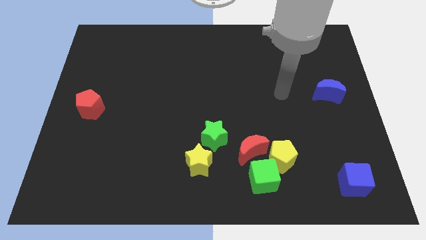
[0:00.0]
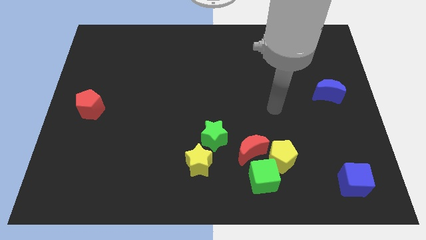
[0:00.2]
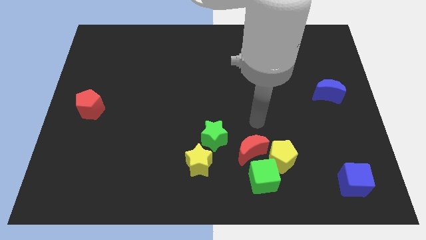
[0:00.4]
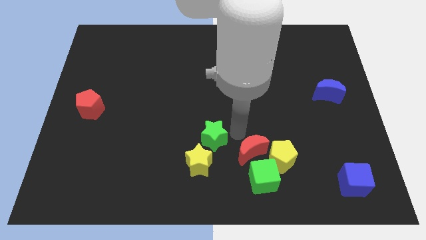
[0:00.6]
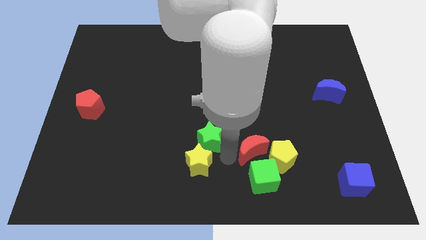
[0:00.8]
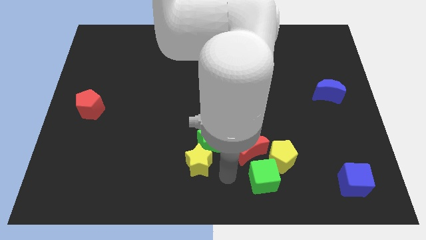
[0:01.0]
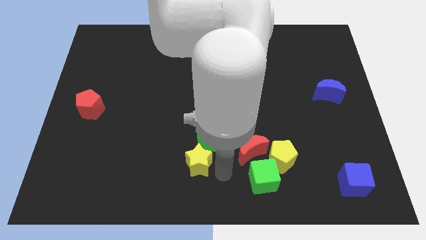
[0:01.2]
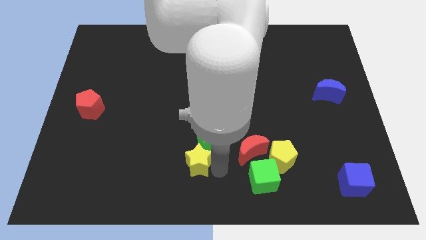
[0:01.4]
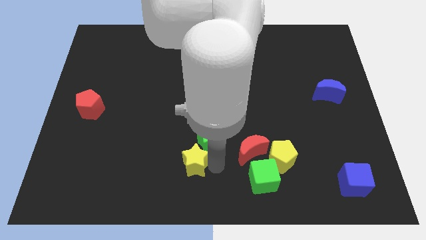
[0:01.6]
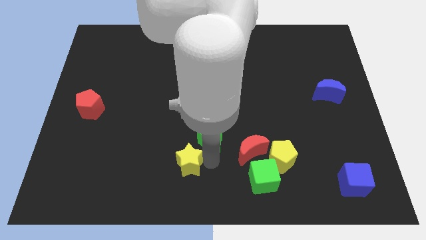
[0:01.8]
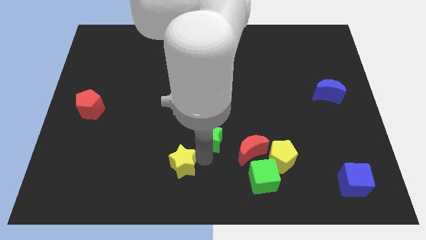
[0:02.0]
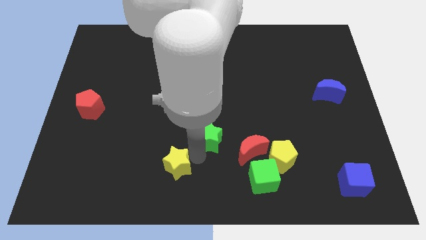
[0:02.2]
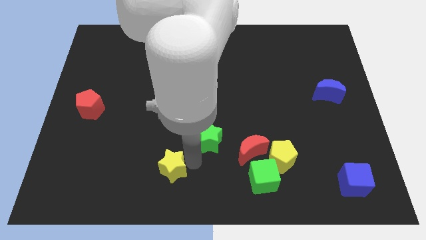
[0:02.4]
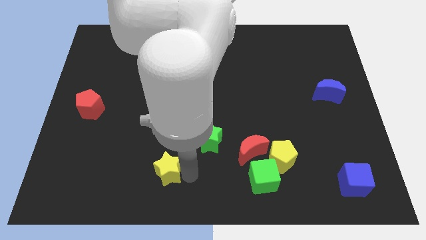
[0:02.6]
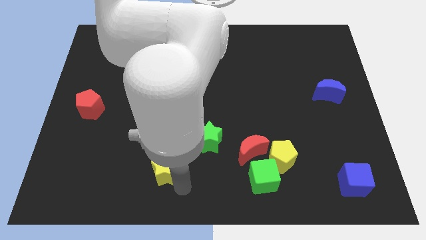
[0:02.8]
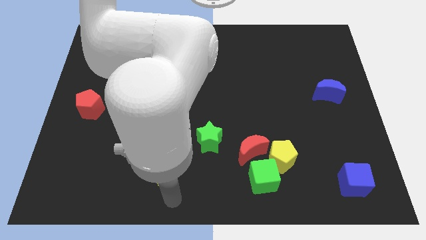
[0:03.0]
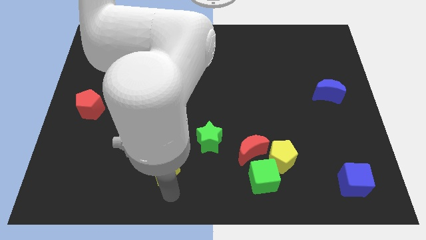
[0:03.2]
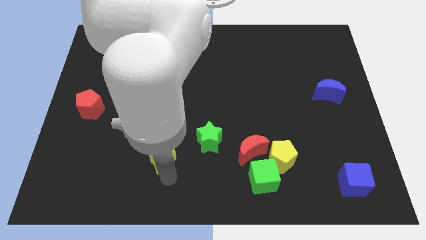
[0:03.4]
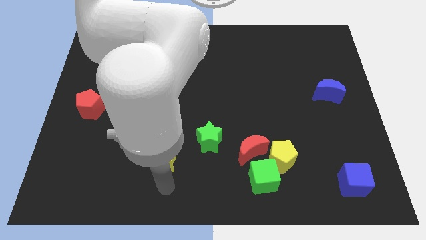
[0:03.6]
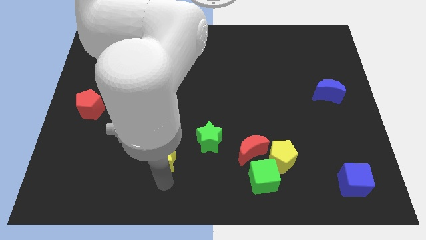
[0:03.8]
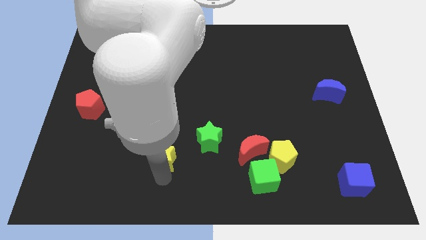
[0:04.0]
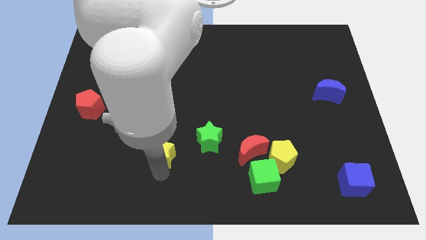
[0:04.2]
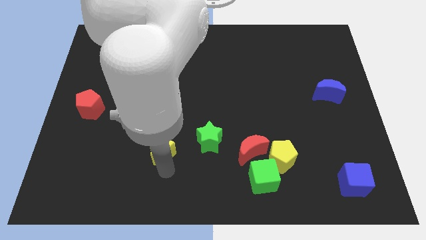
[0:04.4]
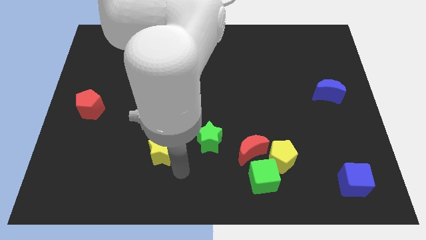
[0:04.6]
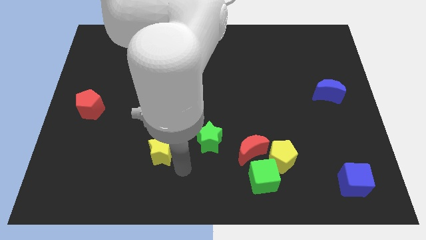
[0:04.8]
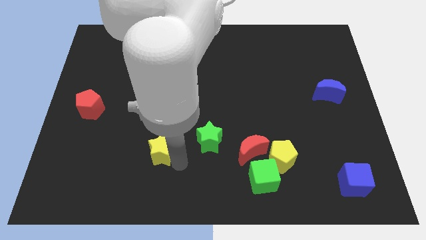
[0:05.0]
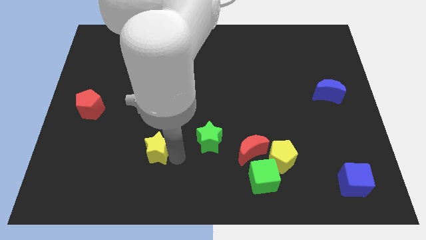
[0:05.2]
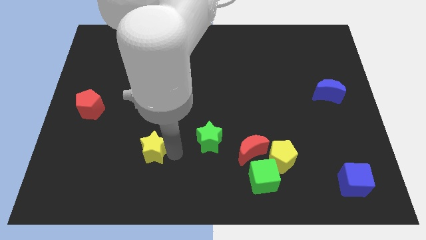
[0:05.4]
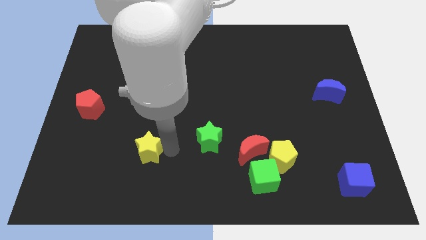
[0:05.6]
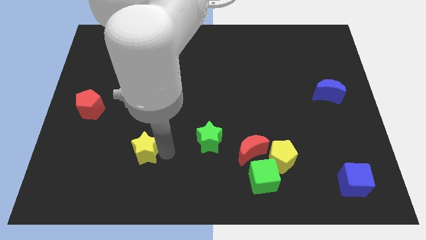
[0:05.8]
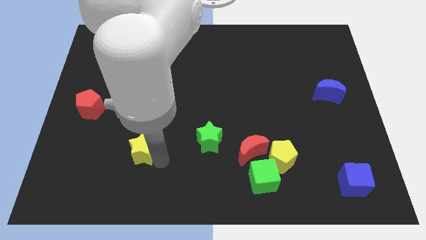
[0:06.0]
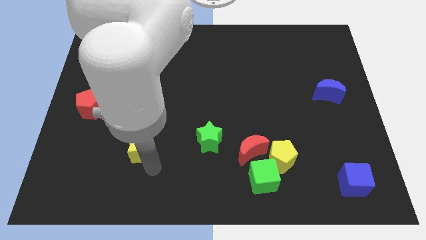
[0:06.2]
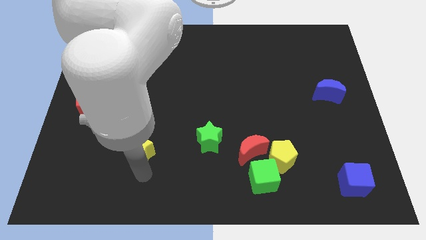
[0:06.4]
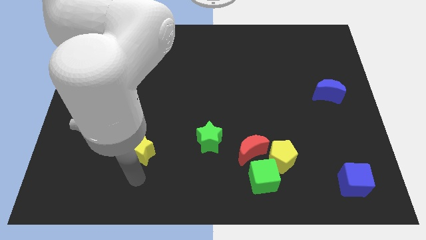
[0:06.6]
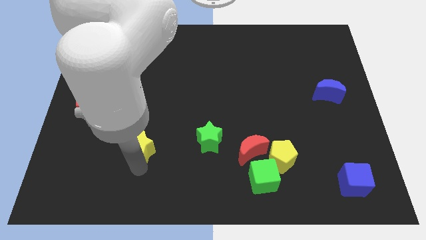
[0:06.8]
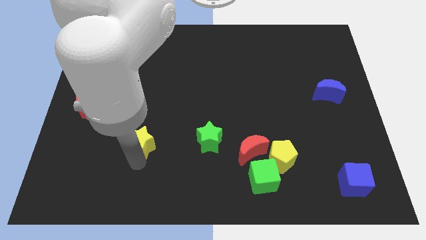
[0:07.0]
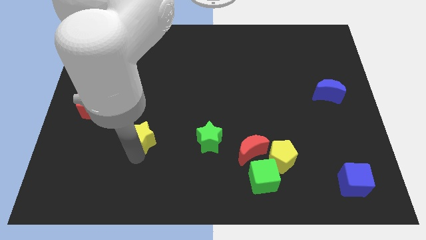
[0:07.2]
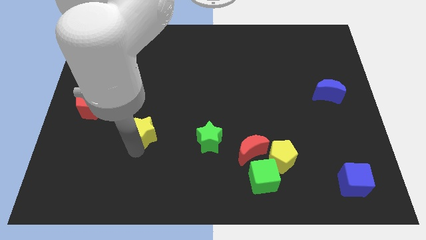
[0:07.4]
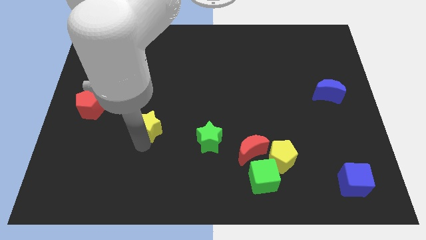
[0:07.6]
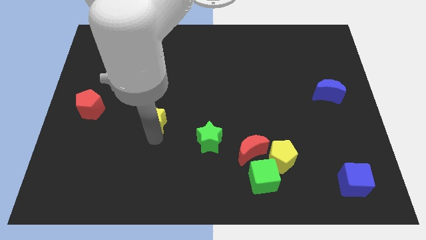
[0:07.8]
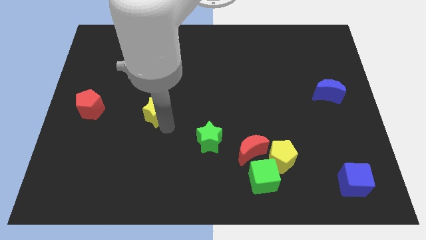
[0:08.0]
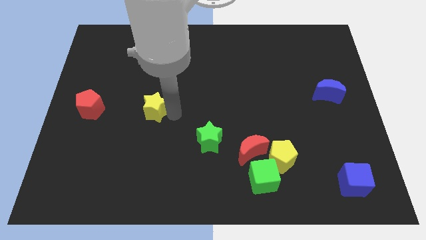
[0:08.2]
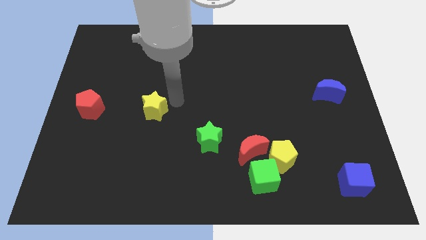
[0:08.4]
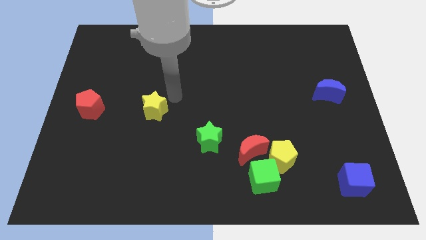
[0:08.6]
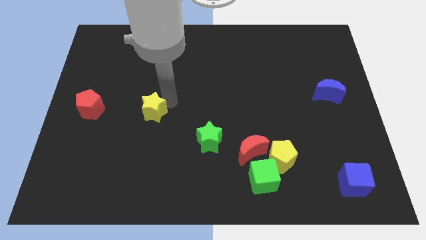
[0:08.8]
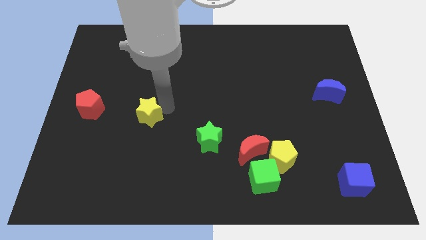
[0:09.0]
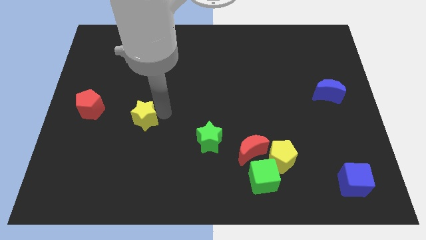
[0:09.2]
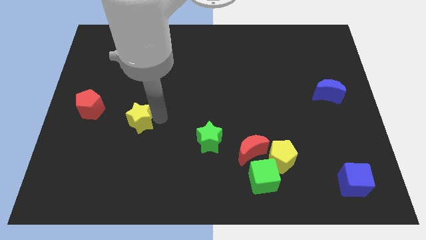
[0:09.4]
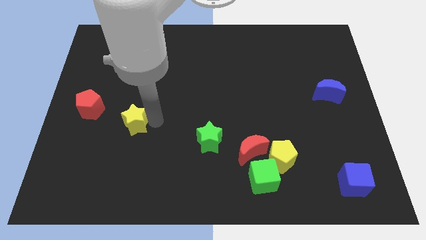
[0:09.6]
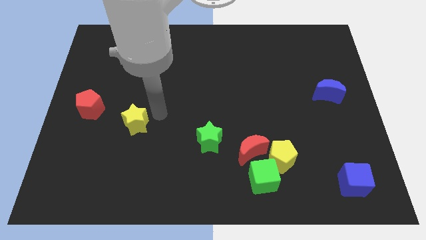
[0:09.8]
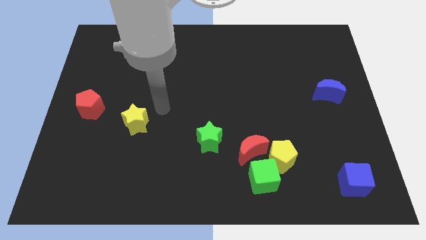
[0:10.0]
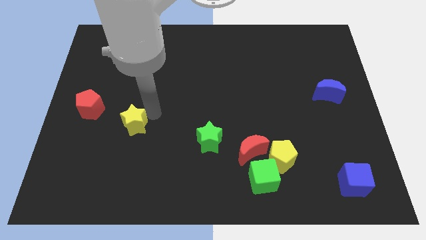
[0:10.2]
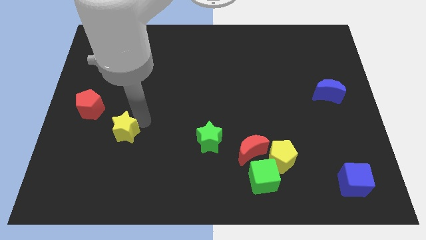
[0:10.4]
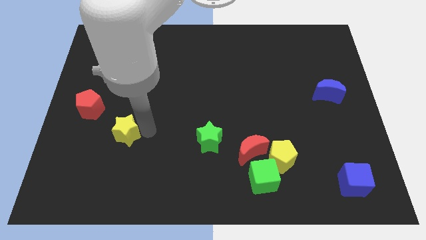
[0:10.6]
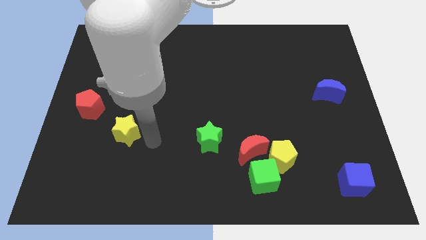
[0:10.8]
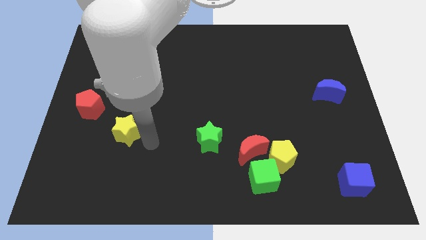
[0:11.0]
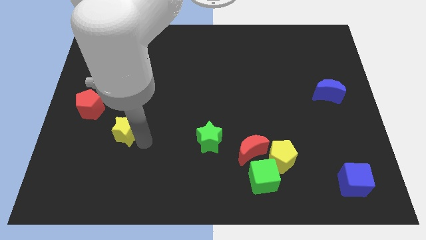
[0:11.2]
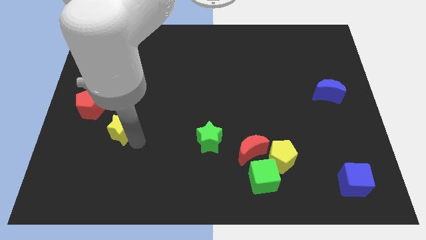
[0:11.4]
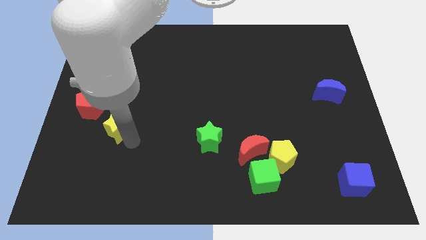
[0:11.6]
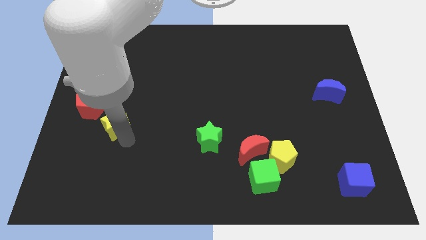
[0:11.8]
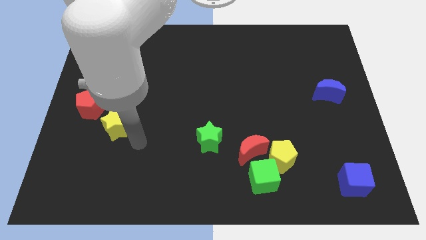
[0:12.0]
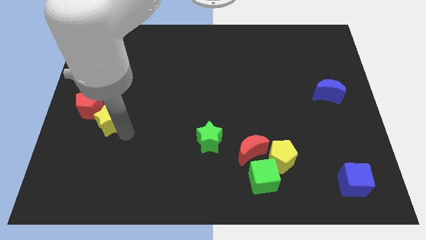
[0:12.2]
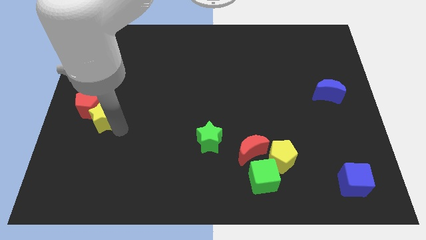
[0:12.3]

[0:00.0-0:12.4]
move the yellow star next to the red pentagon
